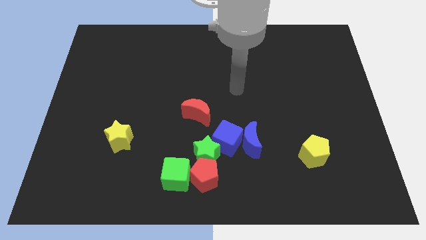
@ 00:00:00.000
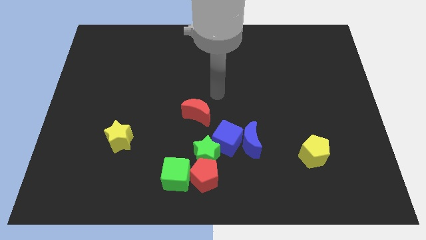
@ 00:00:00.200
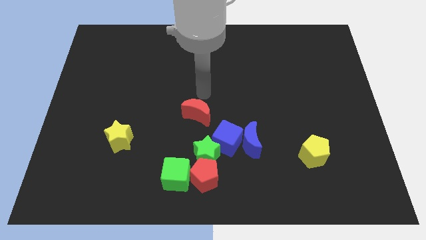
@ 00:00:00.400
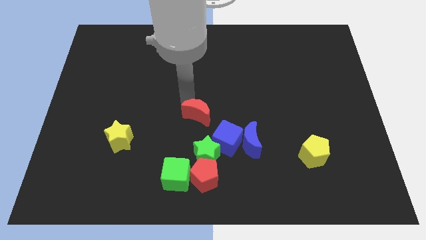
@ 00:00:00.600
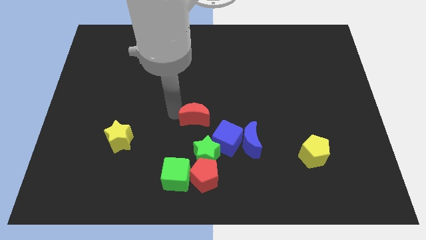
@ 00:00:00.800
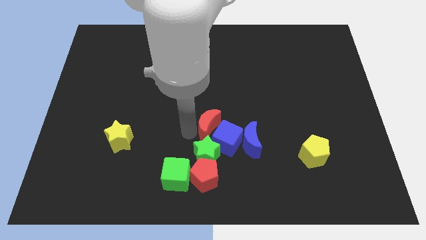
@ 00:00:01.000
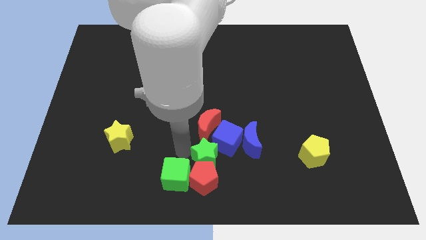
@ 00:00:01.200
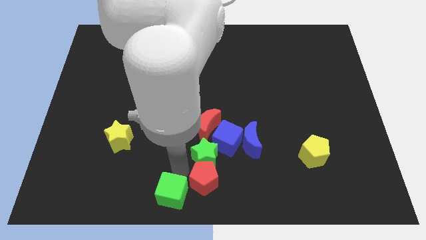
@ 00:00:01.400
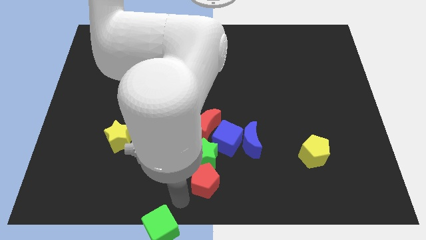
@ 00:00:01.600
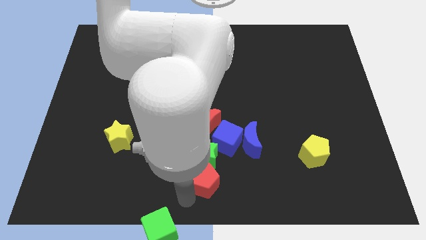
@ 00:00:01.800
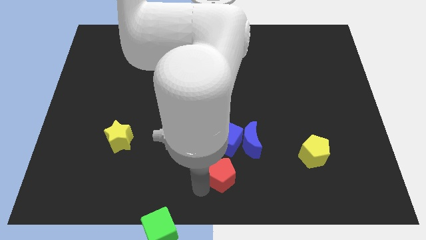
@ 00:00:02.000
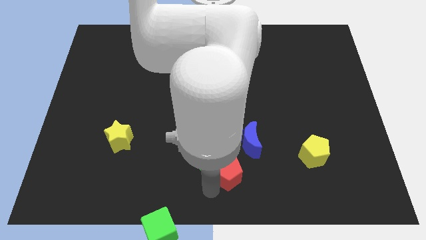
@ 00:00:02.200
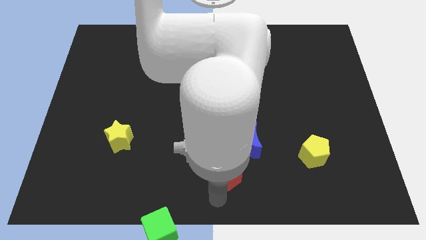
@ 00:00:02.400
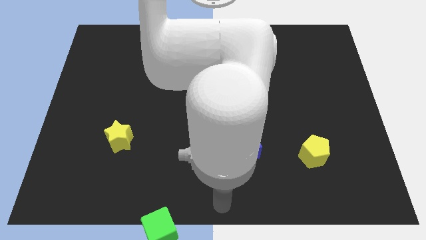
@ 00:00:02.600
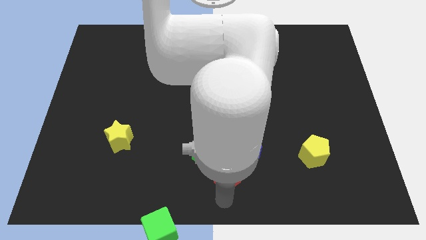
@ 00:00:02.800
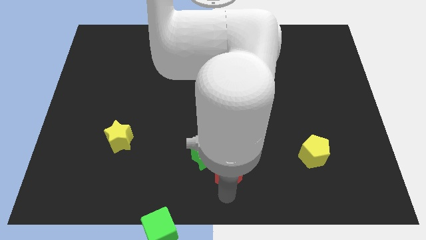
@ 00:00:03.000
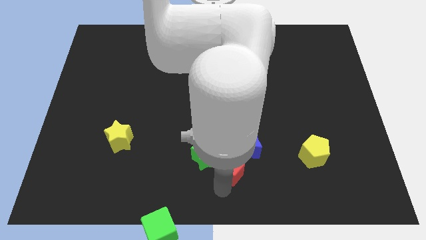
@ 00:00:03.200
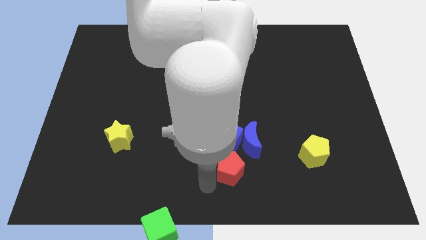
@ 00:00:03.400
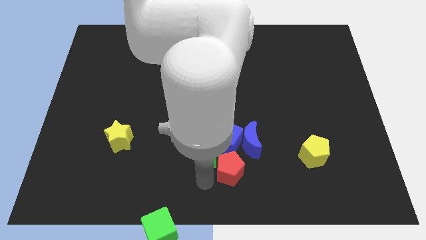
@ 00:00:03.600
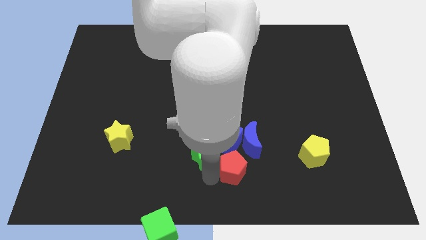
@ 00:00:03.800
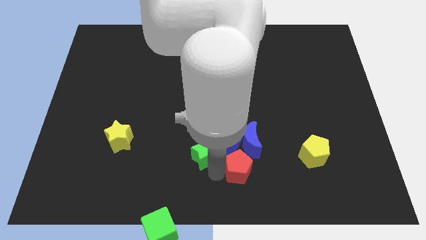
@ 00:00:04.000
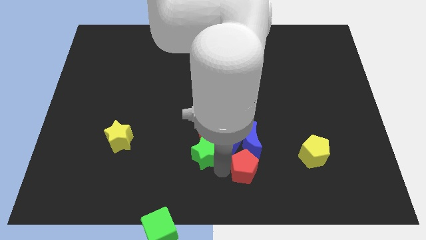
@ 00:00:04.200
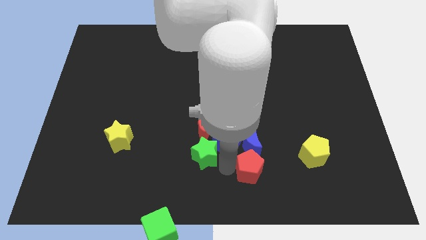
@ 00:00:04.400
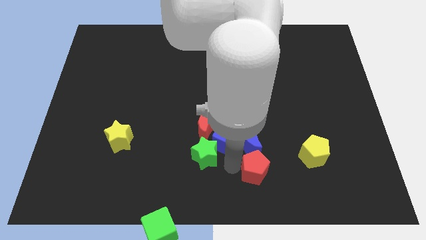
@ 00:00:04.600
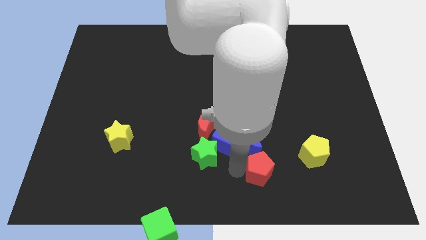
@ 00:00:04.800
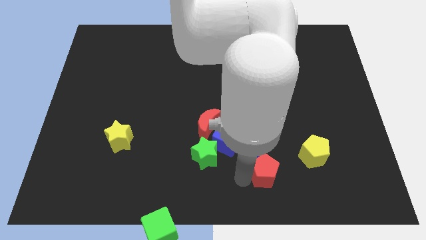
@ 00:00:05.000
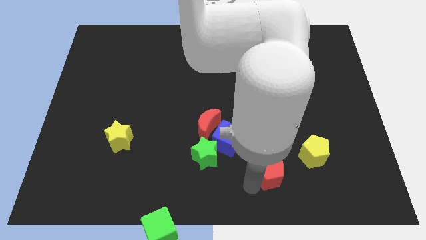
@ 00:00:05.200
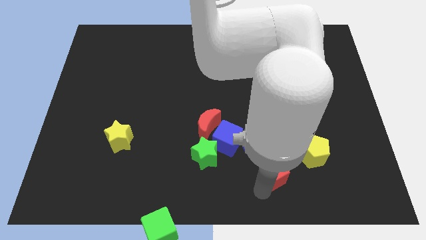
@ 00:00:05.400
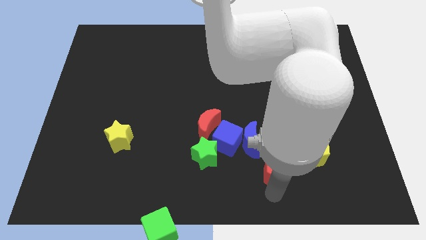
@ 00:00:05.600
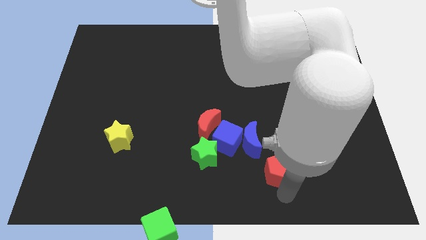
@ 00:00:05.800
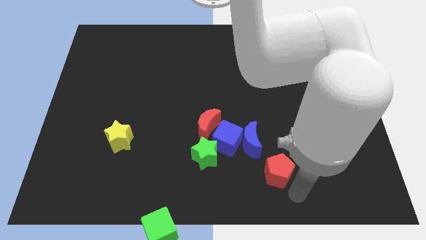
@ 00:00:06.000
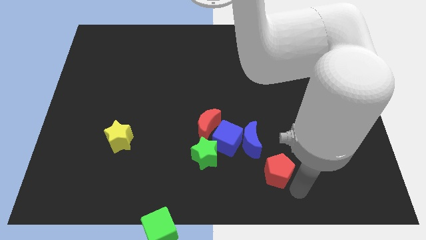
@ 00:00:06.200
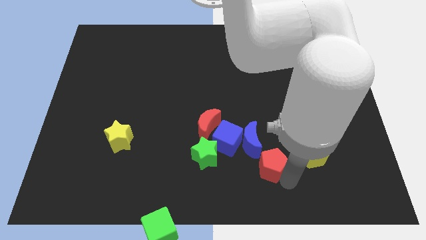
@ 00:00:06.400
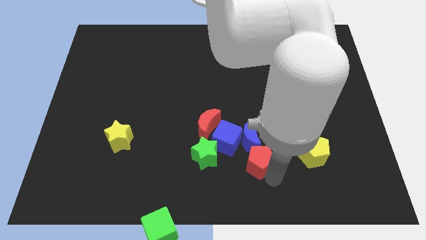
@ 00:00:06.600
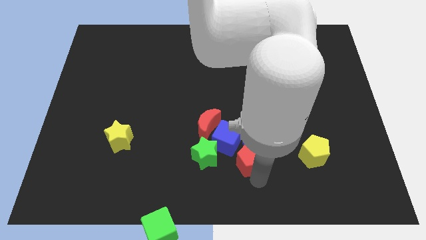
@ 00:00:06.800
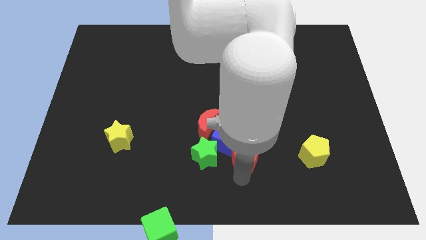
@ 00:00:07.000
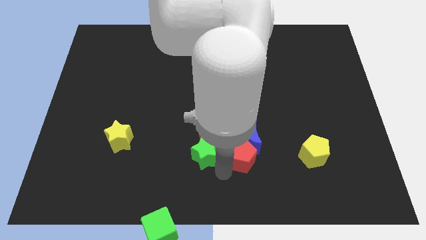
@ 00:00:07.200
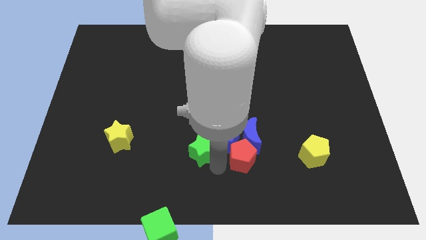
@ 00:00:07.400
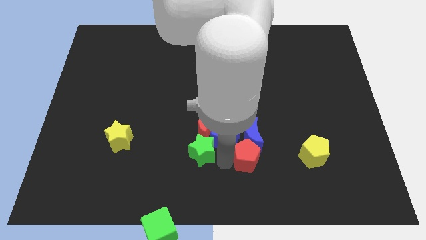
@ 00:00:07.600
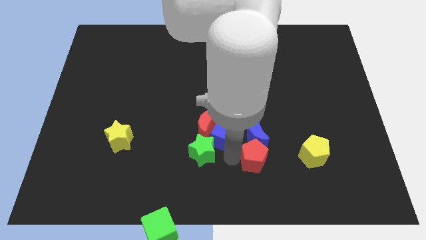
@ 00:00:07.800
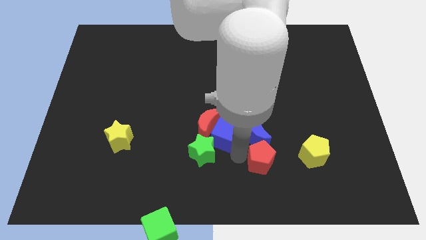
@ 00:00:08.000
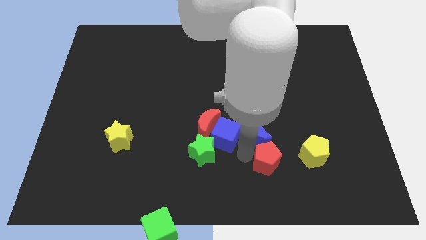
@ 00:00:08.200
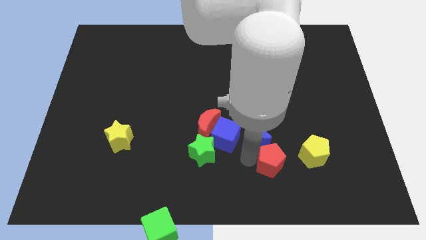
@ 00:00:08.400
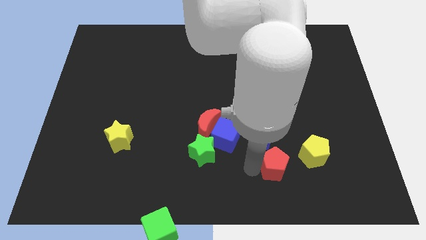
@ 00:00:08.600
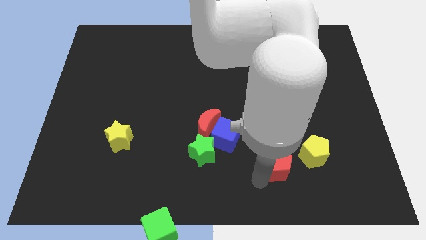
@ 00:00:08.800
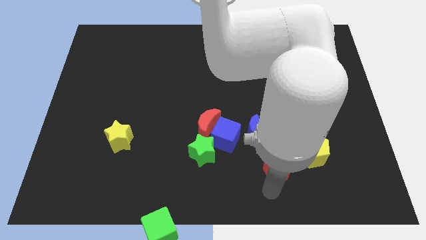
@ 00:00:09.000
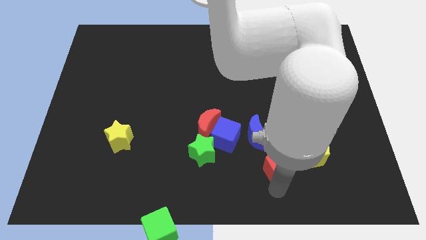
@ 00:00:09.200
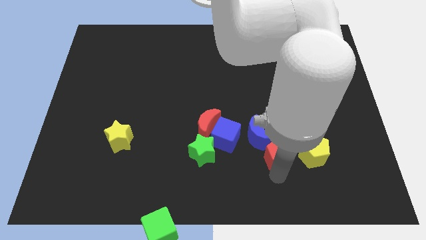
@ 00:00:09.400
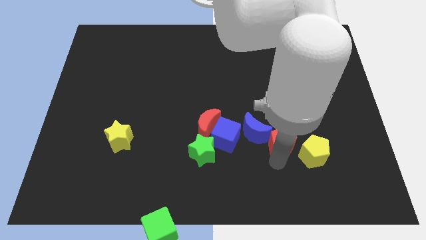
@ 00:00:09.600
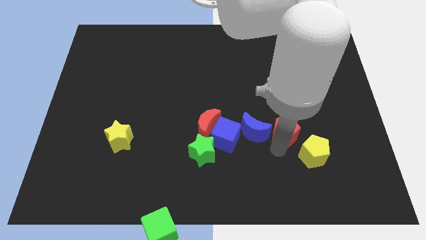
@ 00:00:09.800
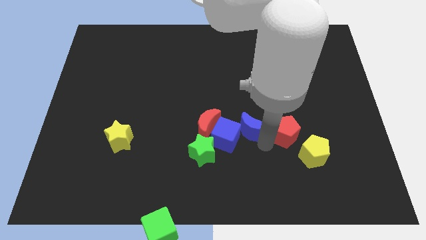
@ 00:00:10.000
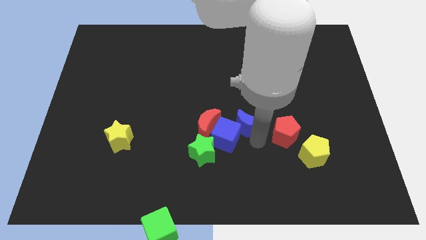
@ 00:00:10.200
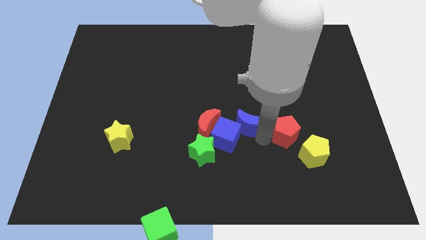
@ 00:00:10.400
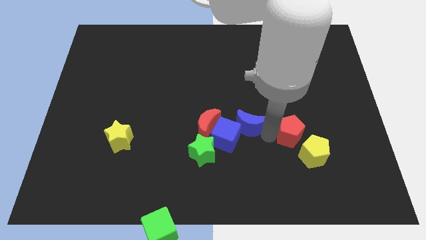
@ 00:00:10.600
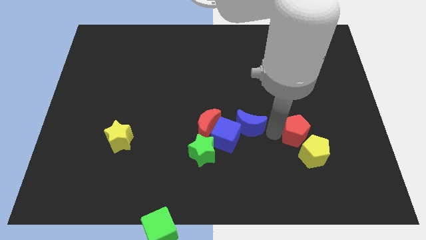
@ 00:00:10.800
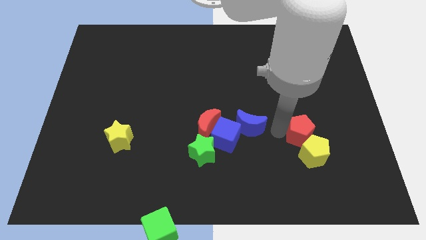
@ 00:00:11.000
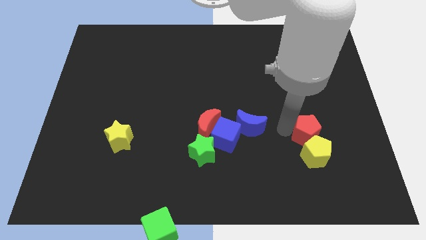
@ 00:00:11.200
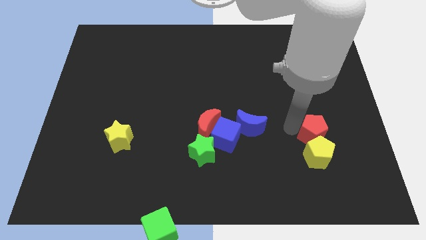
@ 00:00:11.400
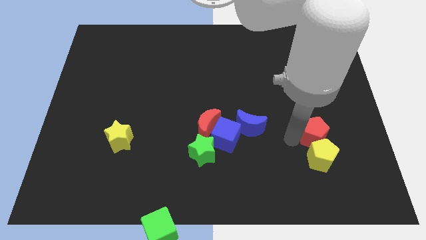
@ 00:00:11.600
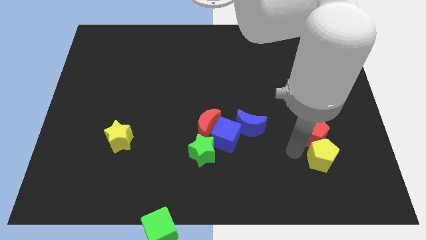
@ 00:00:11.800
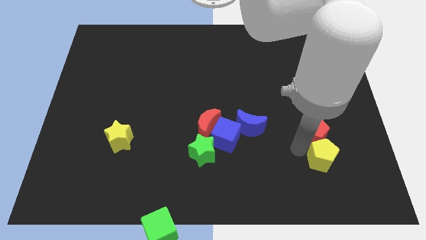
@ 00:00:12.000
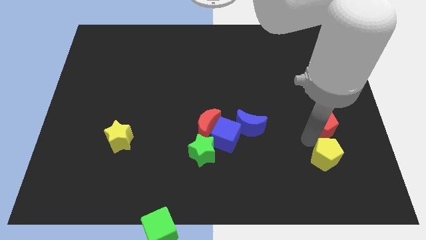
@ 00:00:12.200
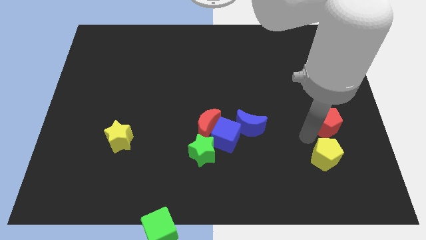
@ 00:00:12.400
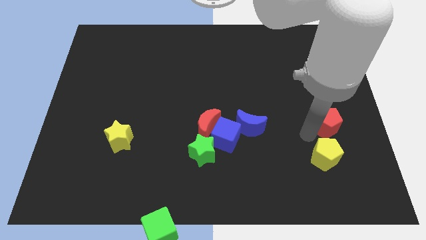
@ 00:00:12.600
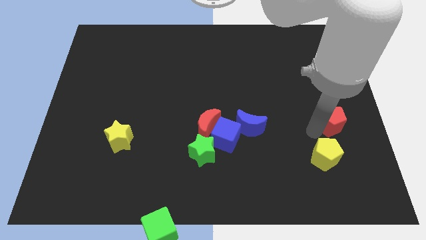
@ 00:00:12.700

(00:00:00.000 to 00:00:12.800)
move the red pentagon to the right side
